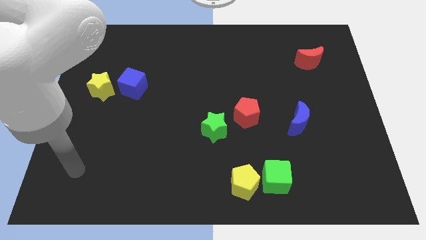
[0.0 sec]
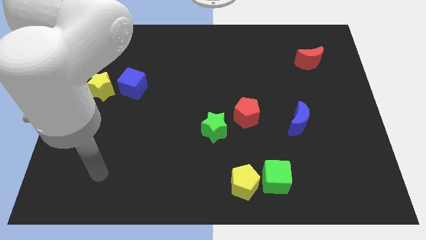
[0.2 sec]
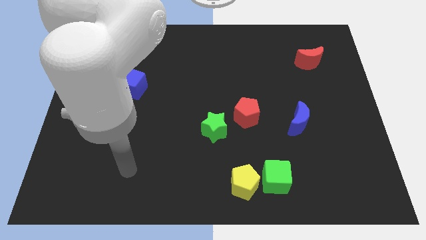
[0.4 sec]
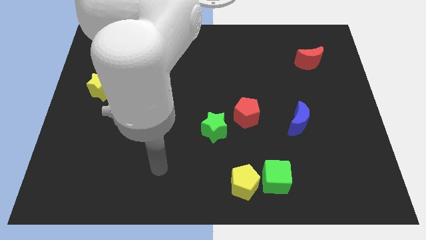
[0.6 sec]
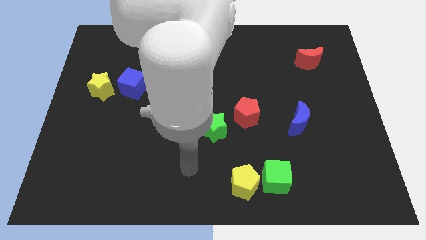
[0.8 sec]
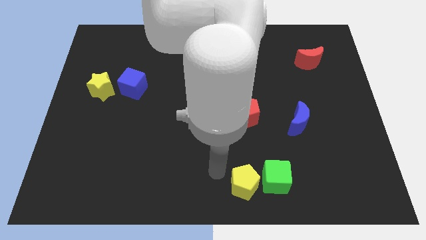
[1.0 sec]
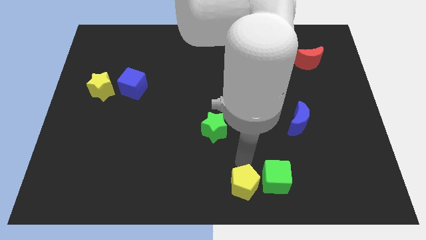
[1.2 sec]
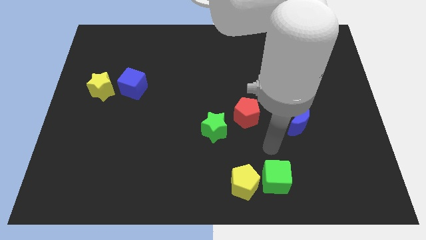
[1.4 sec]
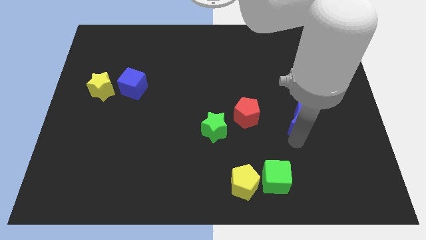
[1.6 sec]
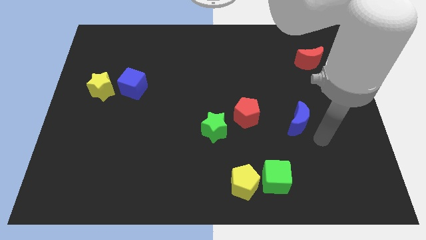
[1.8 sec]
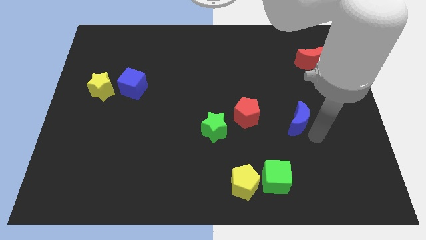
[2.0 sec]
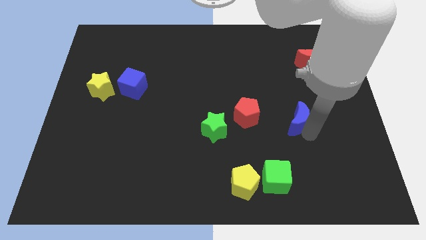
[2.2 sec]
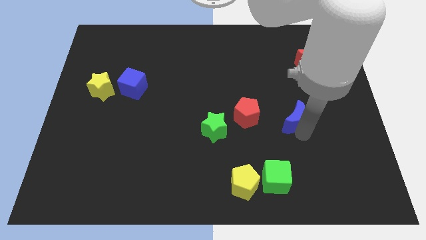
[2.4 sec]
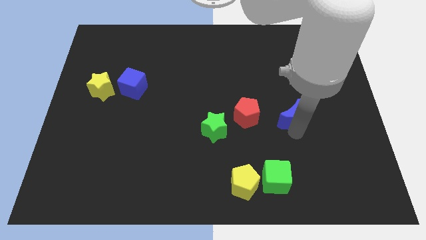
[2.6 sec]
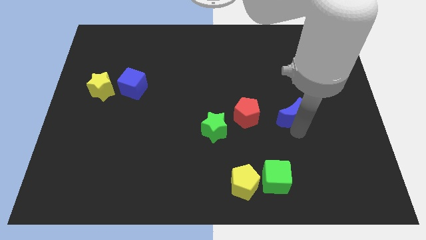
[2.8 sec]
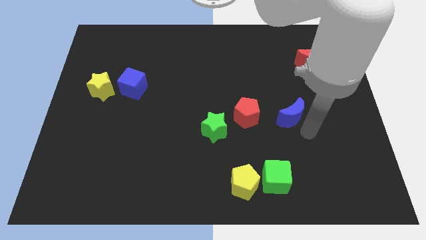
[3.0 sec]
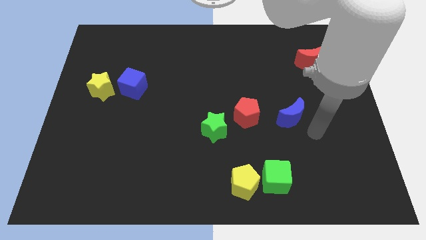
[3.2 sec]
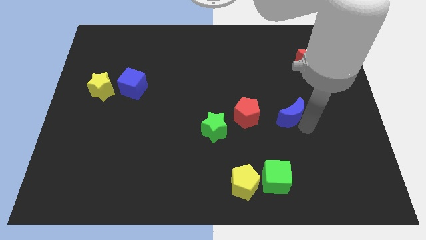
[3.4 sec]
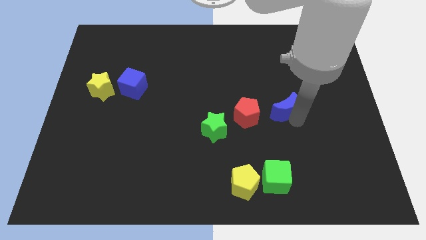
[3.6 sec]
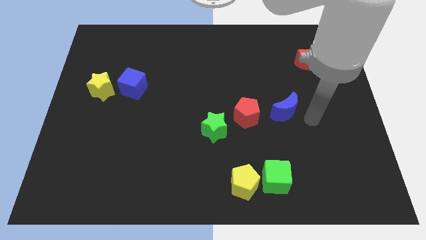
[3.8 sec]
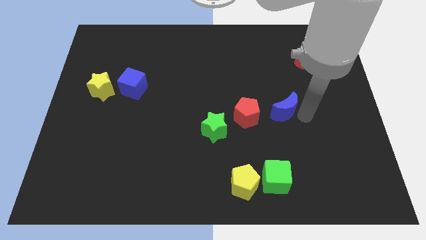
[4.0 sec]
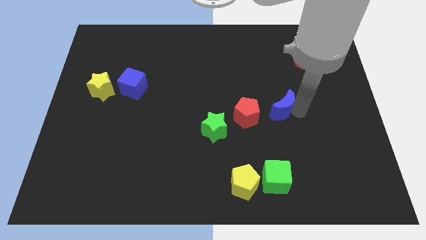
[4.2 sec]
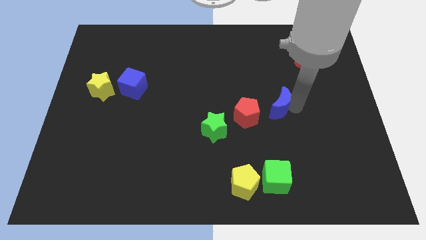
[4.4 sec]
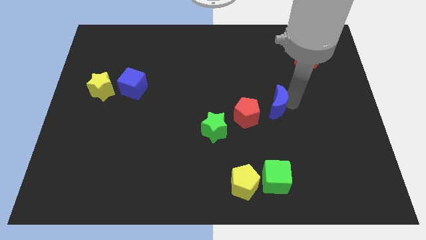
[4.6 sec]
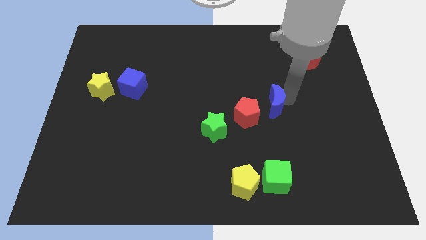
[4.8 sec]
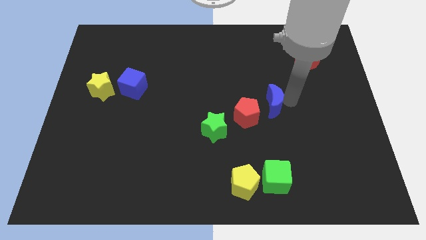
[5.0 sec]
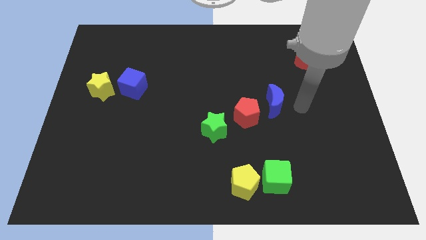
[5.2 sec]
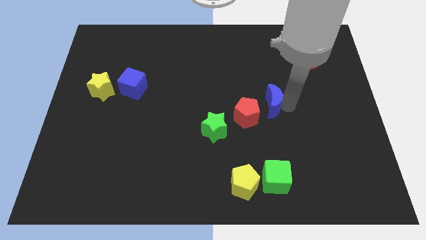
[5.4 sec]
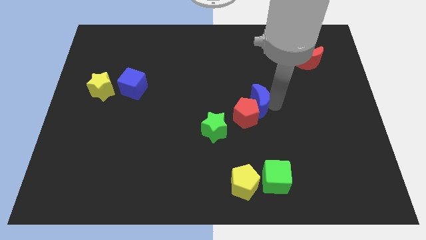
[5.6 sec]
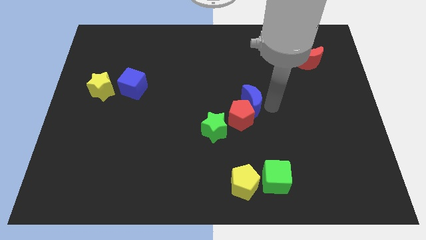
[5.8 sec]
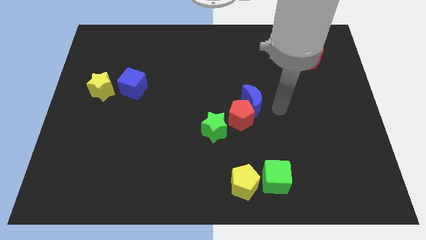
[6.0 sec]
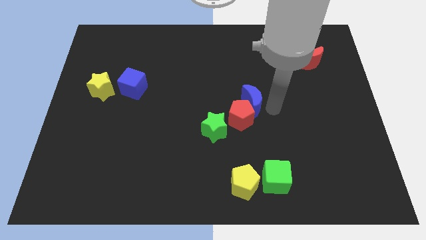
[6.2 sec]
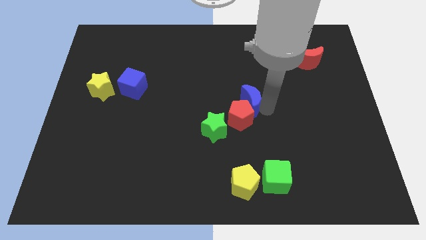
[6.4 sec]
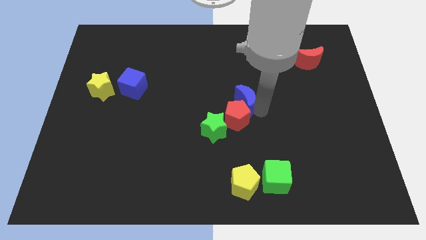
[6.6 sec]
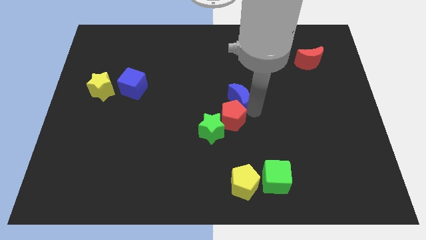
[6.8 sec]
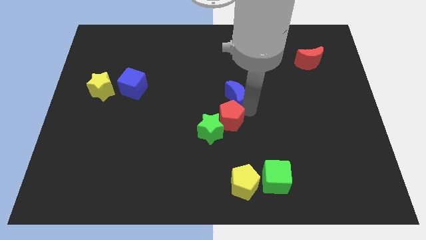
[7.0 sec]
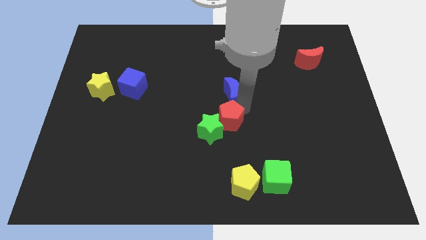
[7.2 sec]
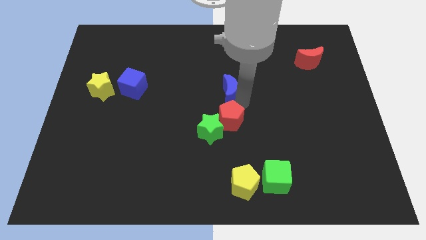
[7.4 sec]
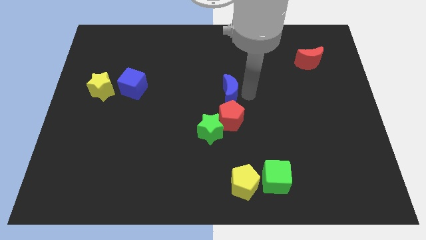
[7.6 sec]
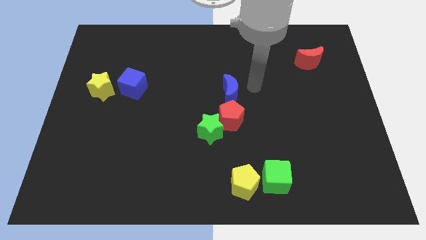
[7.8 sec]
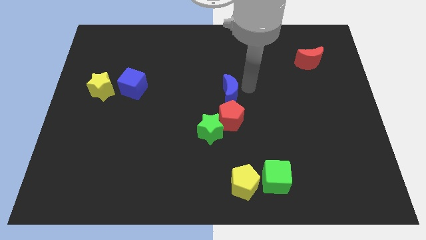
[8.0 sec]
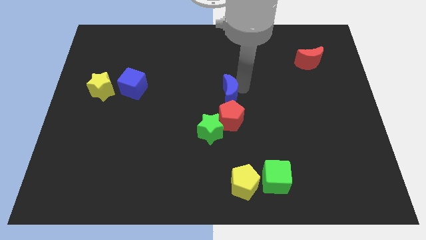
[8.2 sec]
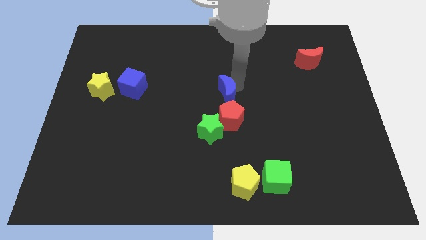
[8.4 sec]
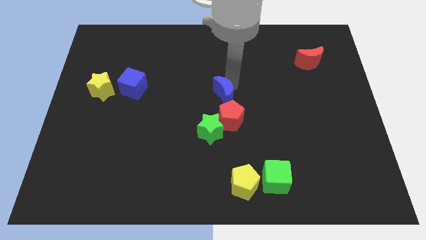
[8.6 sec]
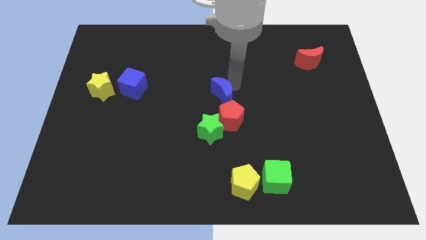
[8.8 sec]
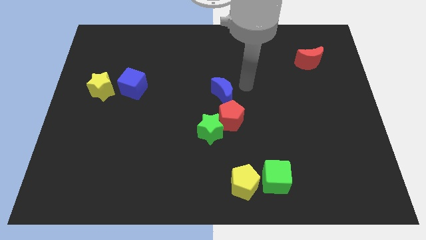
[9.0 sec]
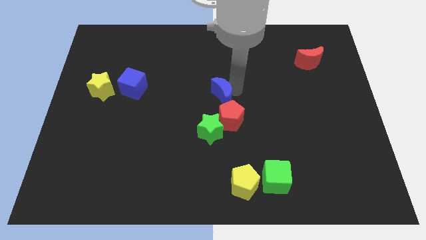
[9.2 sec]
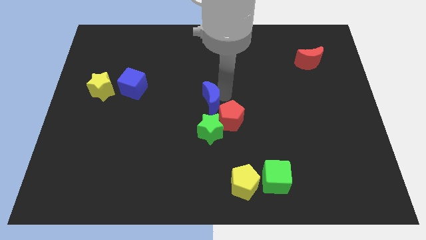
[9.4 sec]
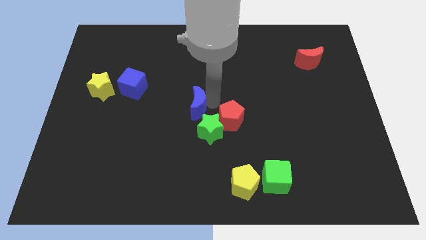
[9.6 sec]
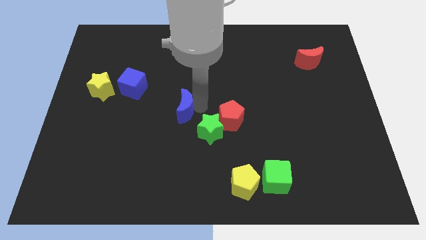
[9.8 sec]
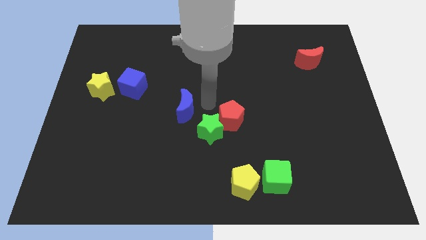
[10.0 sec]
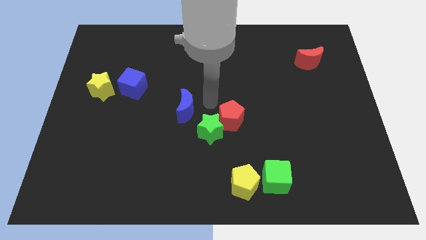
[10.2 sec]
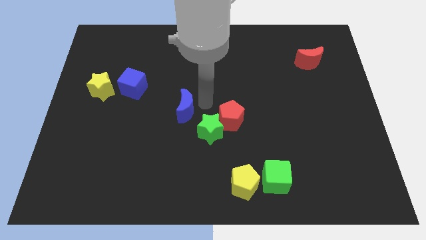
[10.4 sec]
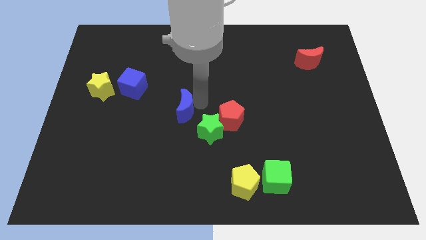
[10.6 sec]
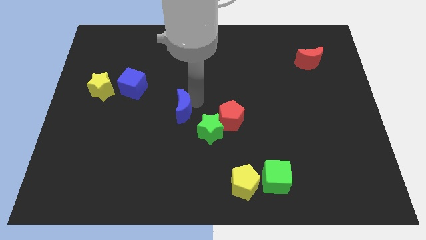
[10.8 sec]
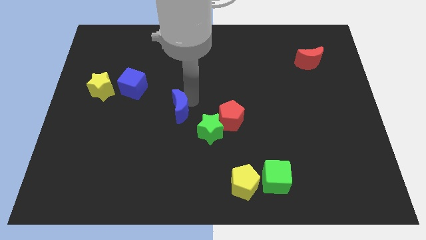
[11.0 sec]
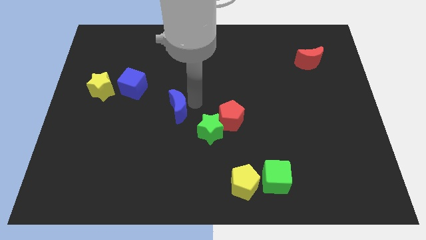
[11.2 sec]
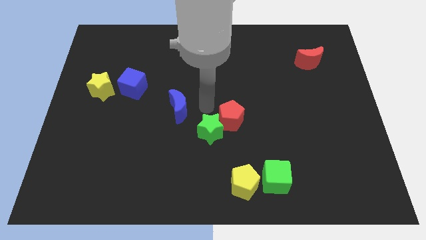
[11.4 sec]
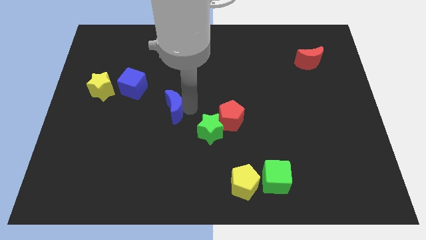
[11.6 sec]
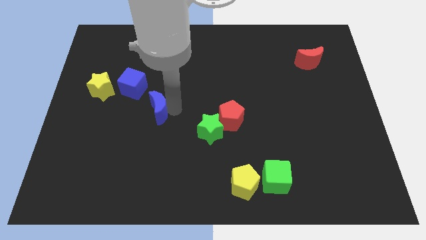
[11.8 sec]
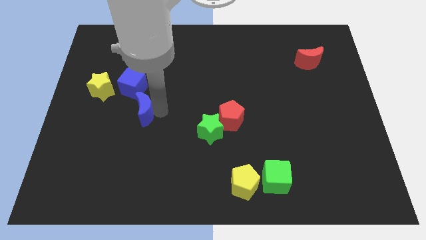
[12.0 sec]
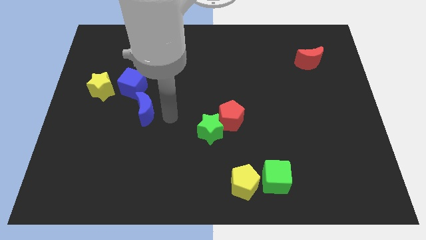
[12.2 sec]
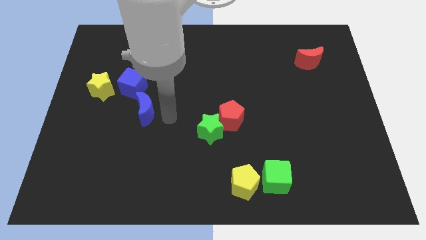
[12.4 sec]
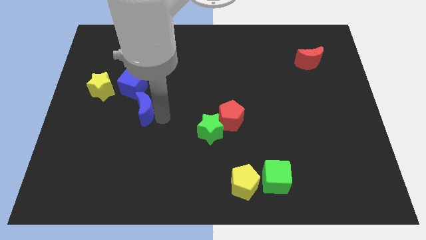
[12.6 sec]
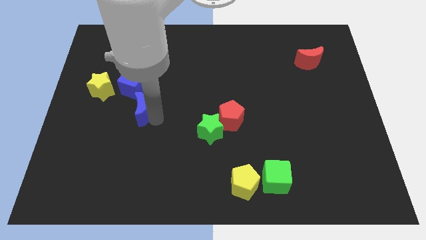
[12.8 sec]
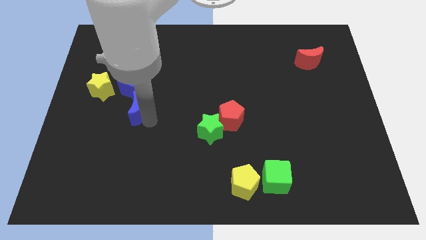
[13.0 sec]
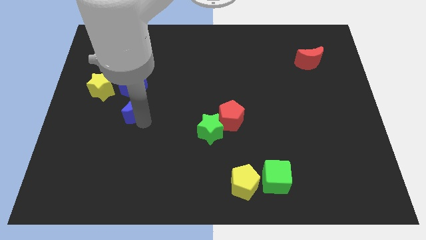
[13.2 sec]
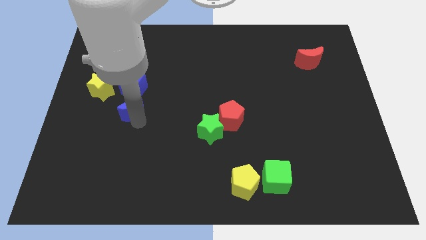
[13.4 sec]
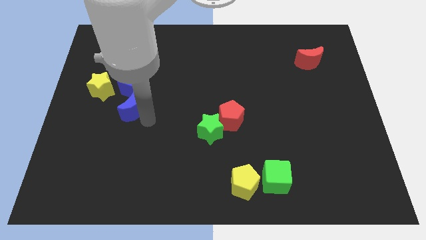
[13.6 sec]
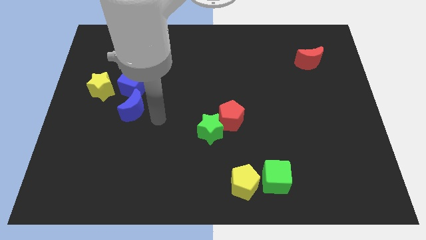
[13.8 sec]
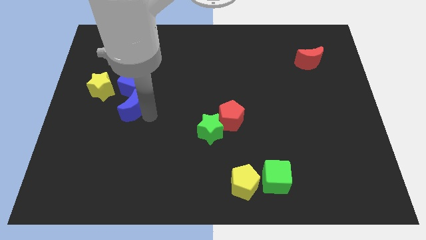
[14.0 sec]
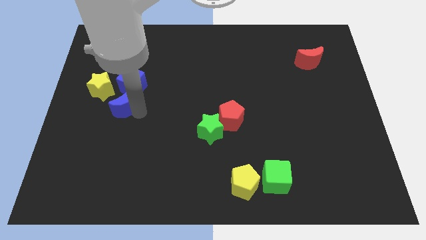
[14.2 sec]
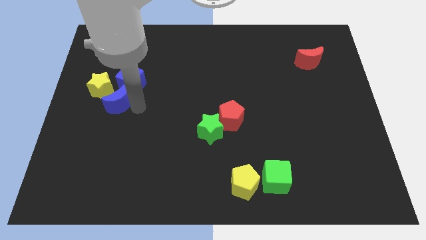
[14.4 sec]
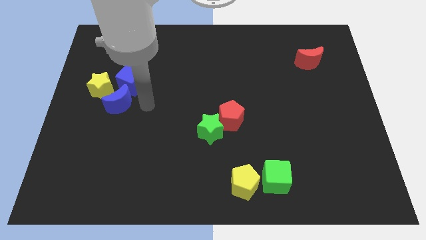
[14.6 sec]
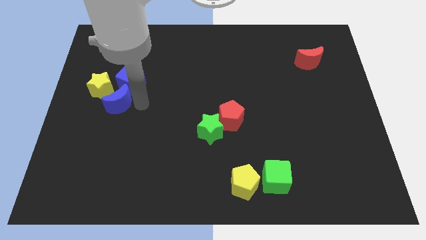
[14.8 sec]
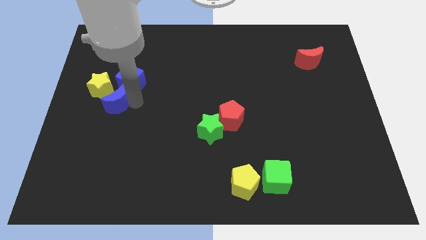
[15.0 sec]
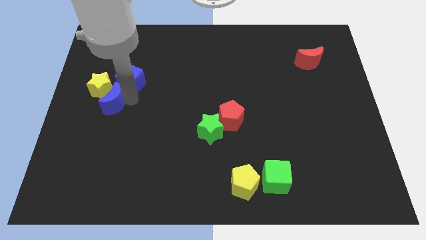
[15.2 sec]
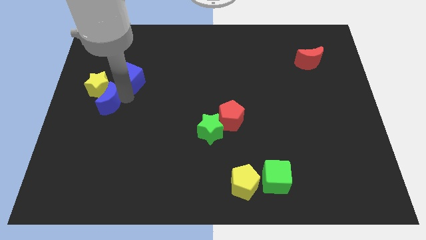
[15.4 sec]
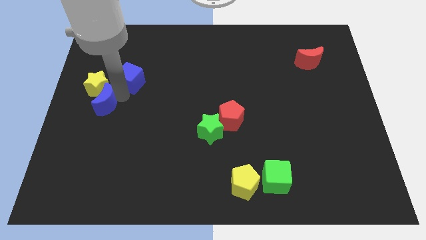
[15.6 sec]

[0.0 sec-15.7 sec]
move the blue moon to the center left

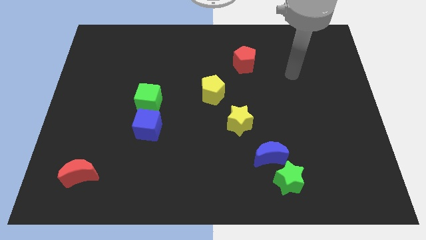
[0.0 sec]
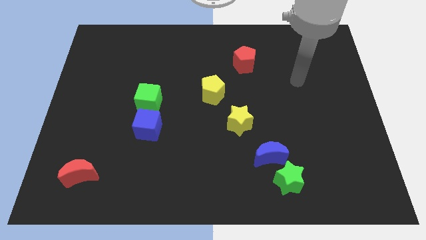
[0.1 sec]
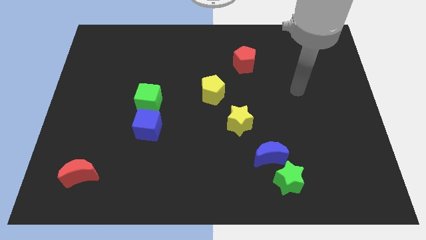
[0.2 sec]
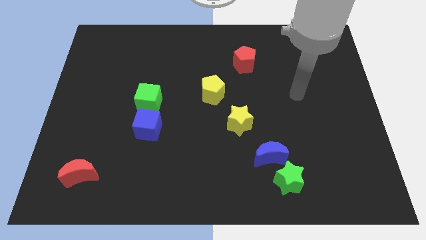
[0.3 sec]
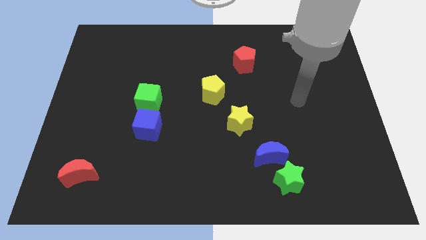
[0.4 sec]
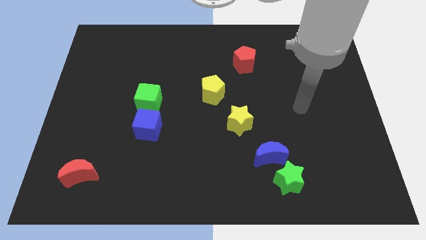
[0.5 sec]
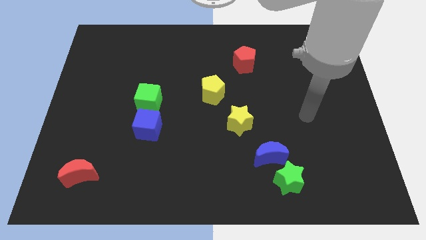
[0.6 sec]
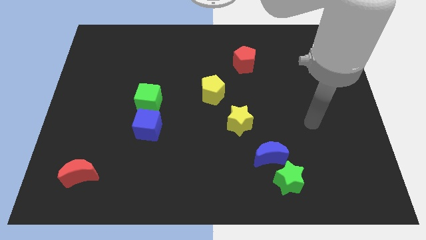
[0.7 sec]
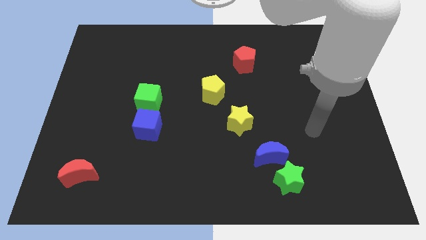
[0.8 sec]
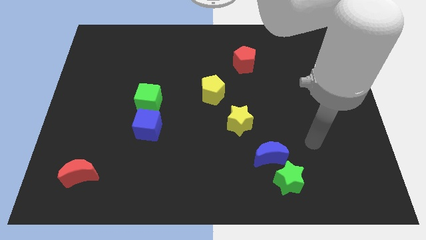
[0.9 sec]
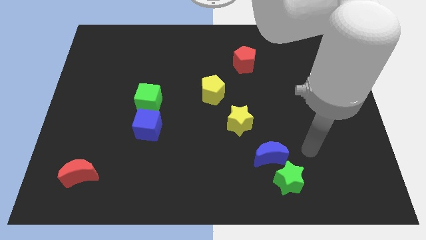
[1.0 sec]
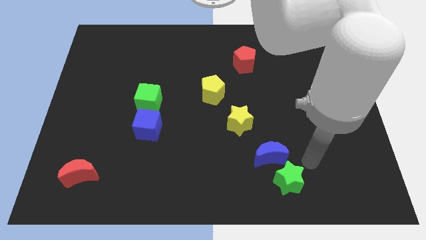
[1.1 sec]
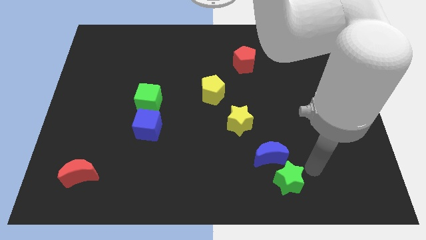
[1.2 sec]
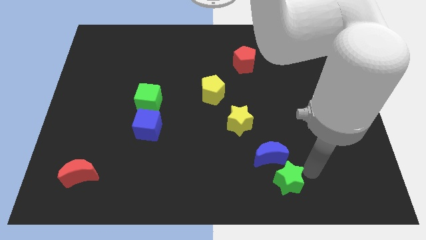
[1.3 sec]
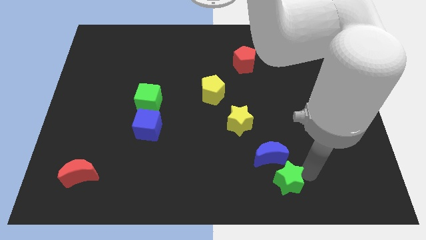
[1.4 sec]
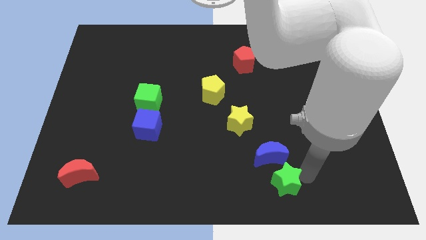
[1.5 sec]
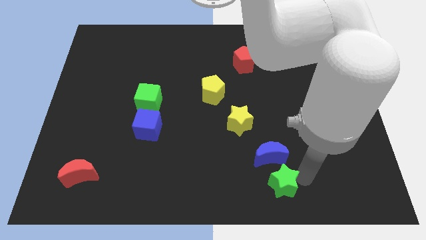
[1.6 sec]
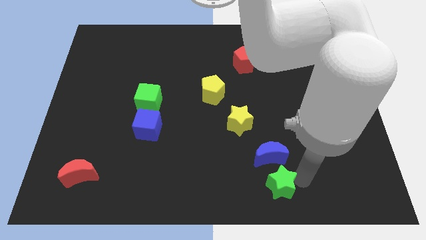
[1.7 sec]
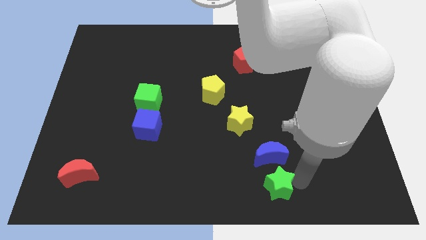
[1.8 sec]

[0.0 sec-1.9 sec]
slide the green star to the bottom
